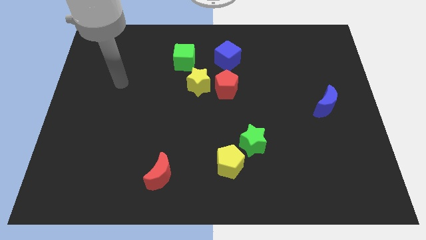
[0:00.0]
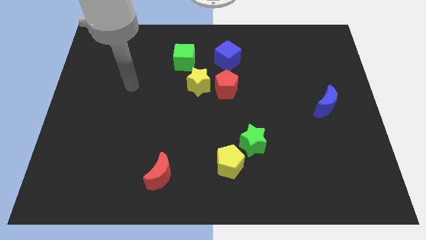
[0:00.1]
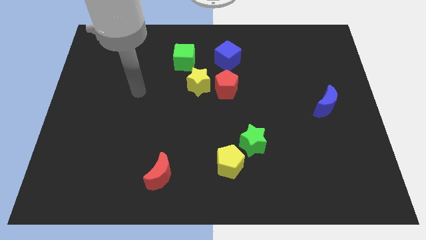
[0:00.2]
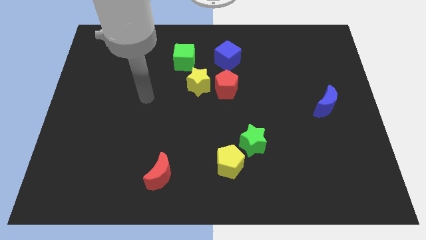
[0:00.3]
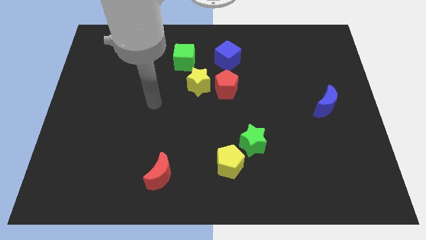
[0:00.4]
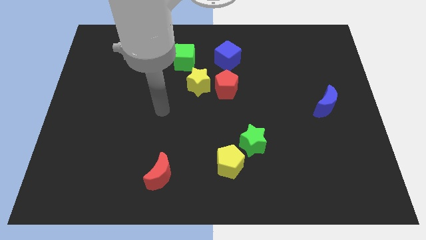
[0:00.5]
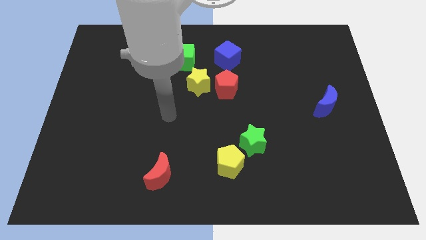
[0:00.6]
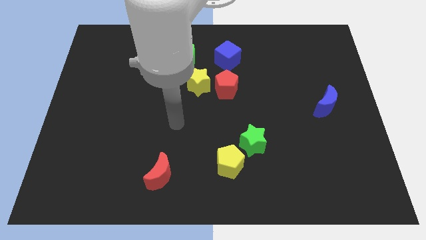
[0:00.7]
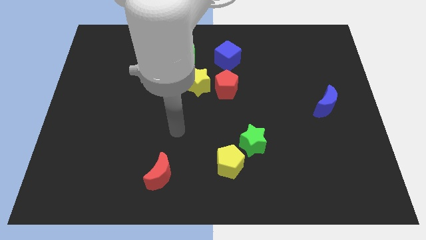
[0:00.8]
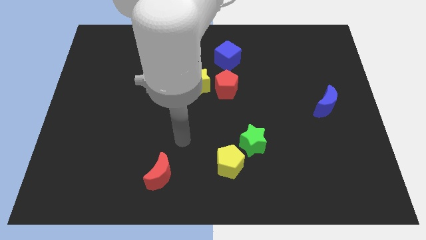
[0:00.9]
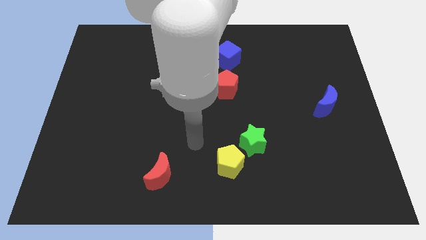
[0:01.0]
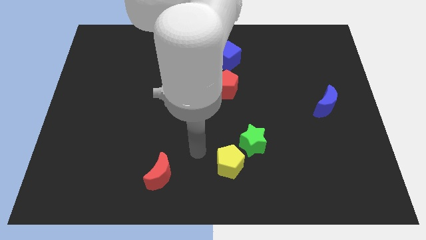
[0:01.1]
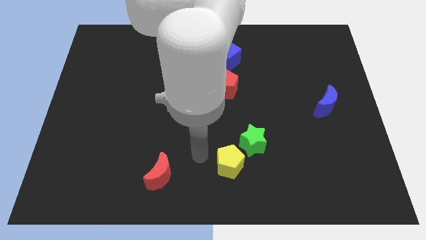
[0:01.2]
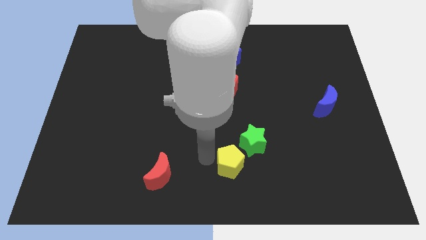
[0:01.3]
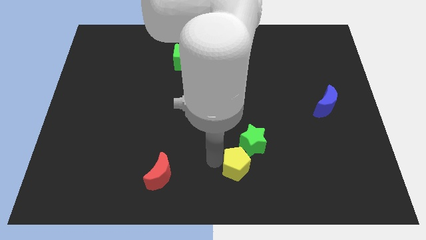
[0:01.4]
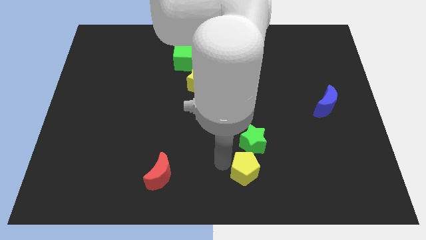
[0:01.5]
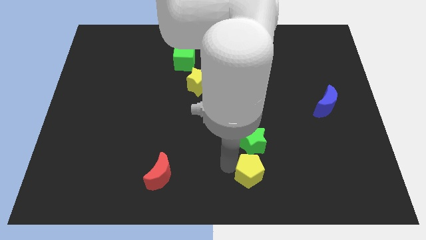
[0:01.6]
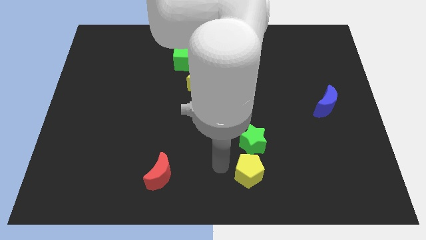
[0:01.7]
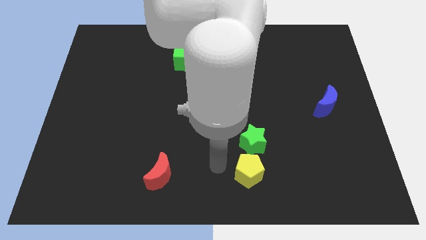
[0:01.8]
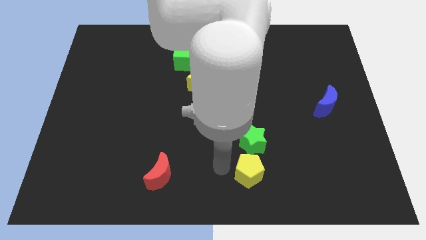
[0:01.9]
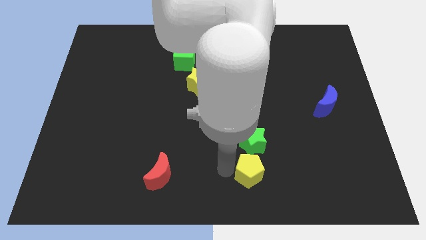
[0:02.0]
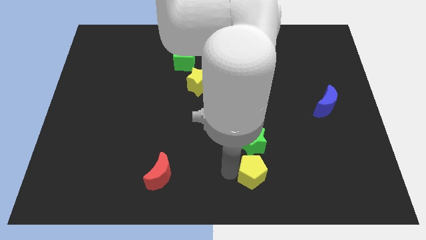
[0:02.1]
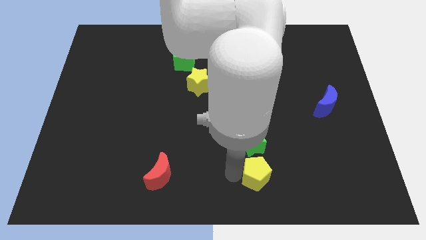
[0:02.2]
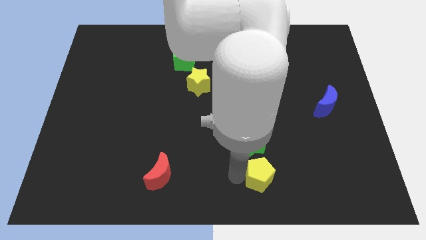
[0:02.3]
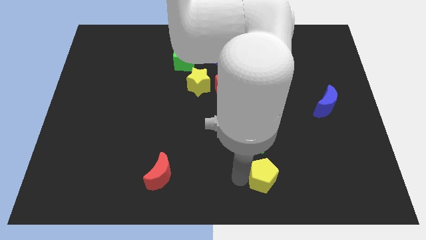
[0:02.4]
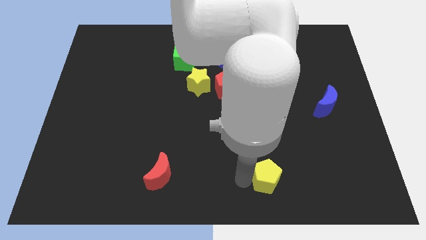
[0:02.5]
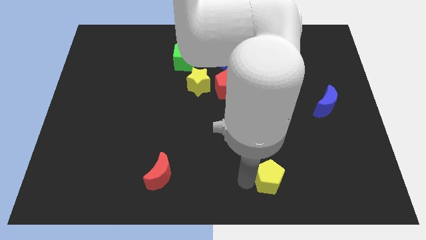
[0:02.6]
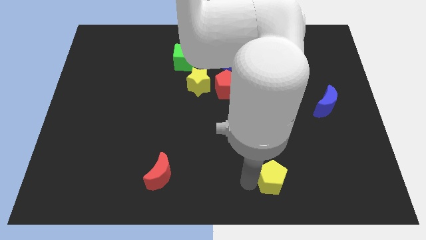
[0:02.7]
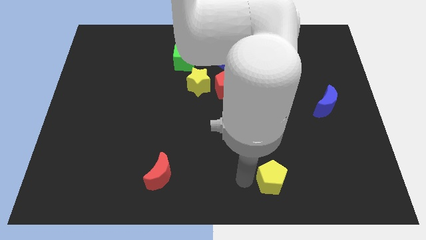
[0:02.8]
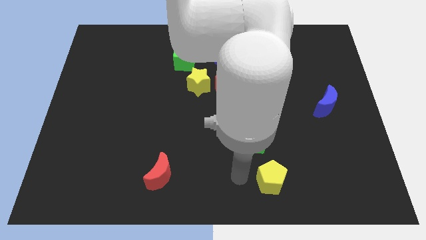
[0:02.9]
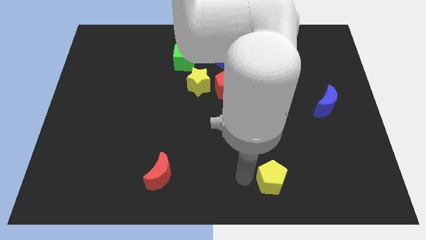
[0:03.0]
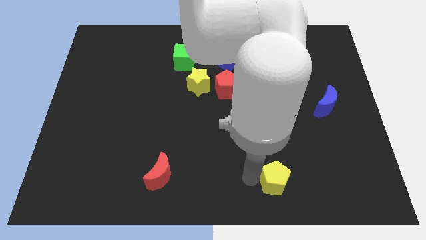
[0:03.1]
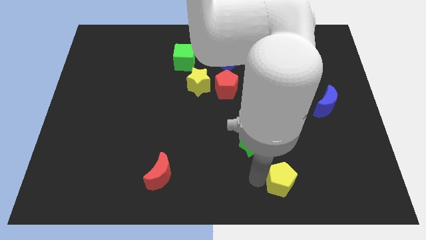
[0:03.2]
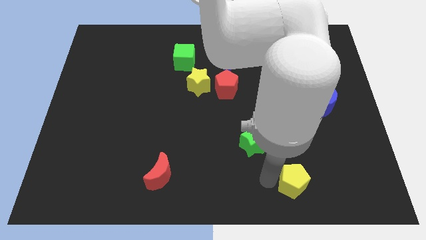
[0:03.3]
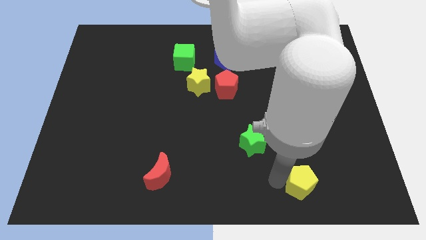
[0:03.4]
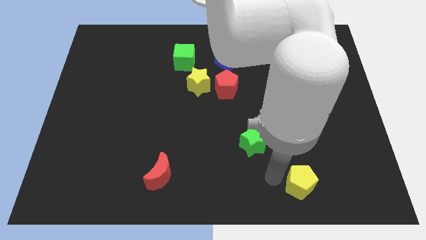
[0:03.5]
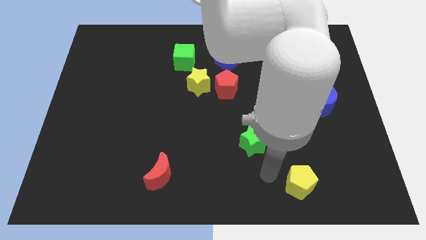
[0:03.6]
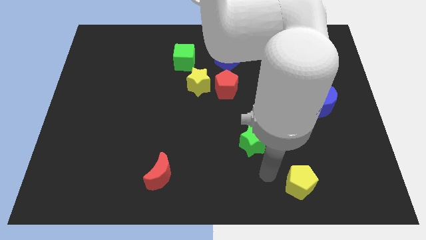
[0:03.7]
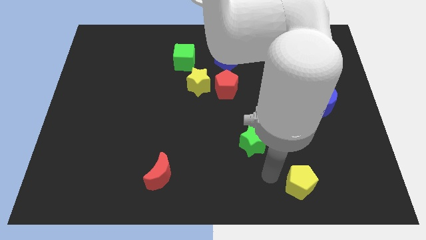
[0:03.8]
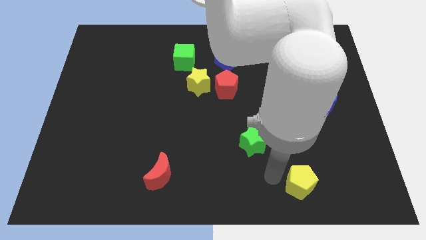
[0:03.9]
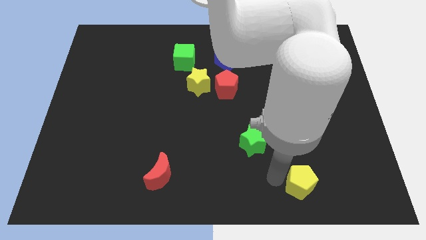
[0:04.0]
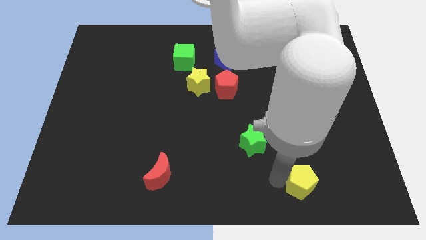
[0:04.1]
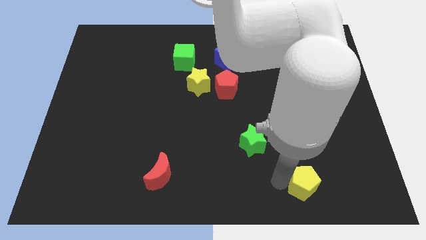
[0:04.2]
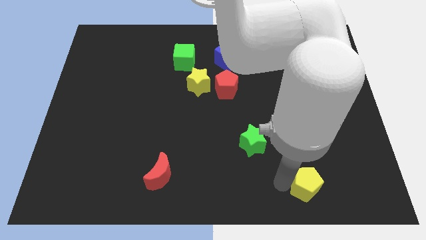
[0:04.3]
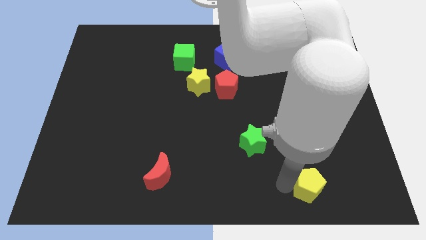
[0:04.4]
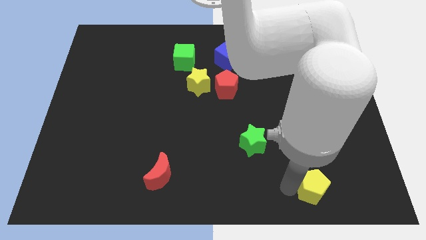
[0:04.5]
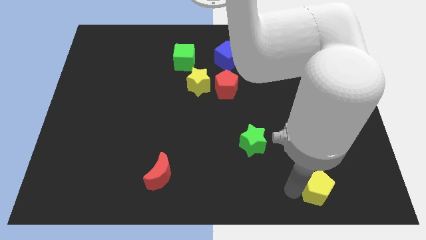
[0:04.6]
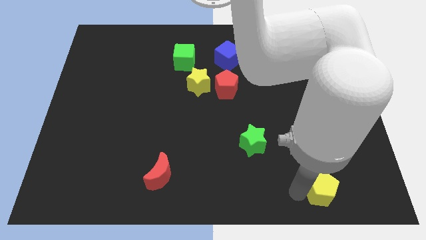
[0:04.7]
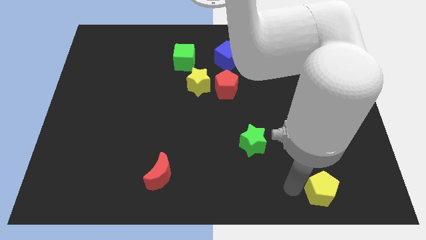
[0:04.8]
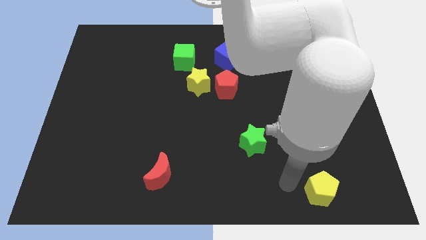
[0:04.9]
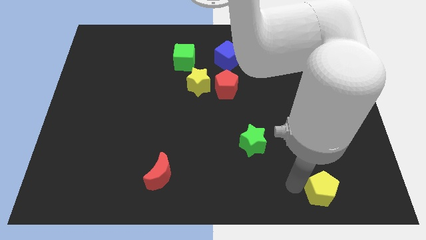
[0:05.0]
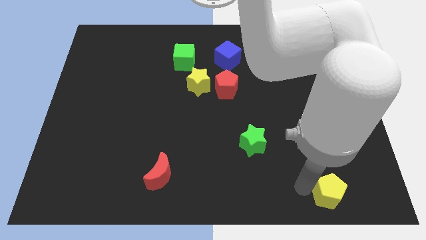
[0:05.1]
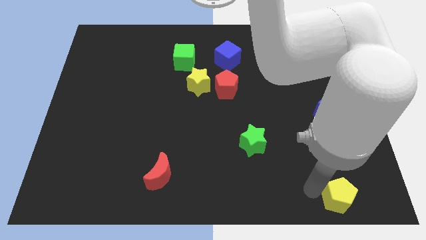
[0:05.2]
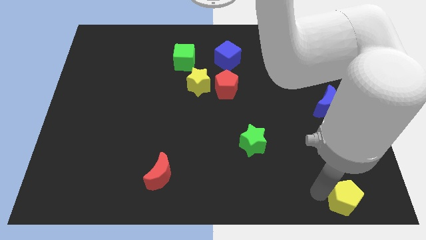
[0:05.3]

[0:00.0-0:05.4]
slide the yellow pentagon to the bottom right of the board

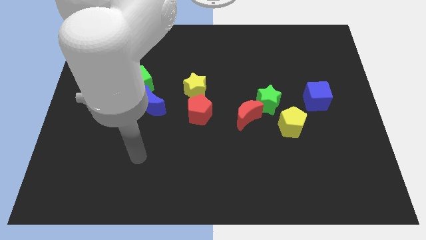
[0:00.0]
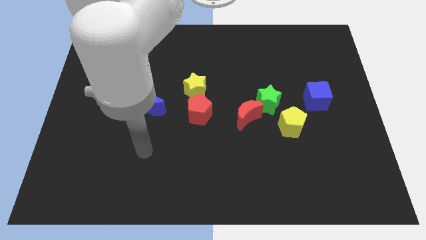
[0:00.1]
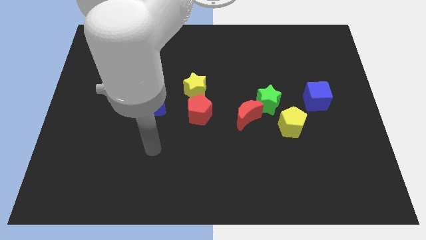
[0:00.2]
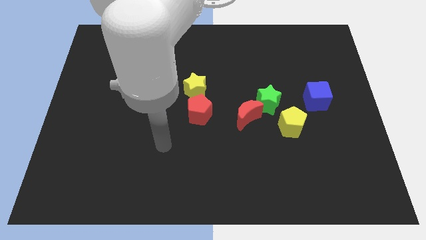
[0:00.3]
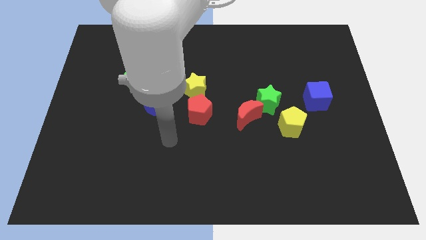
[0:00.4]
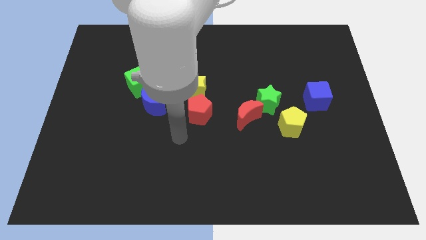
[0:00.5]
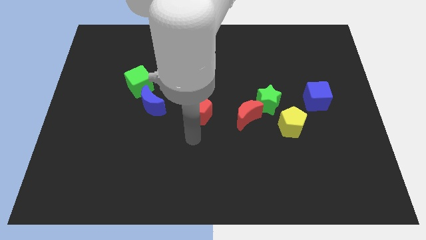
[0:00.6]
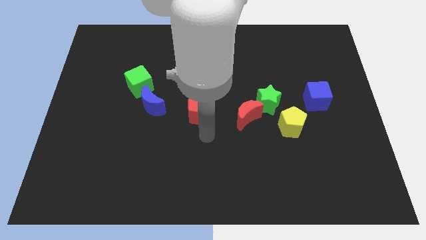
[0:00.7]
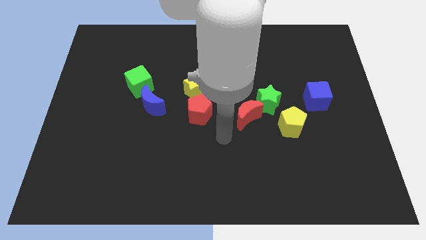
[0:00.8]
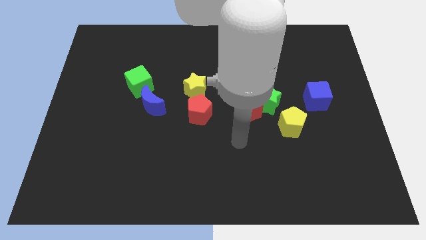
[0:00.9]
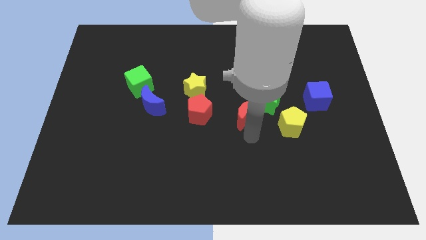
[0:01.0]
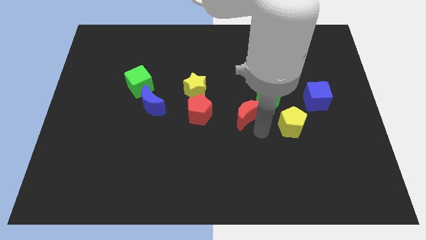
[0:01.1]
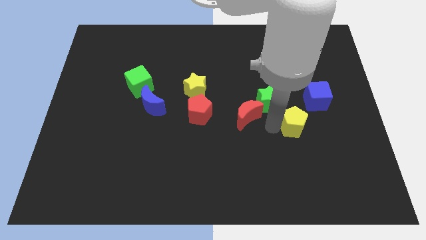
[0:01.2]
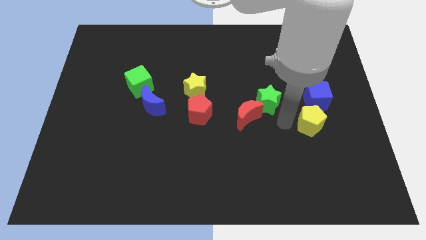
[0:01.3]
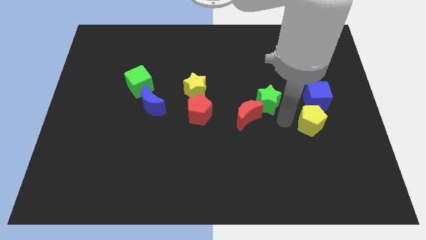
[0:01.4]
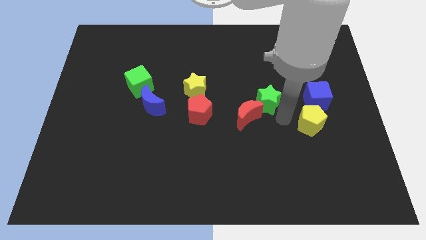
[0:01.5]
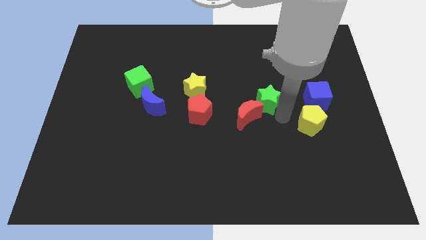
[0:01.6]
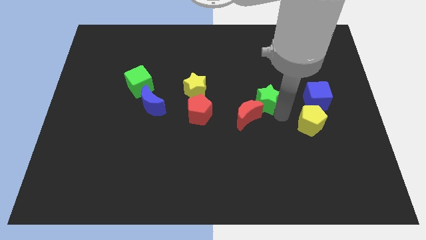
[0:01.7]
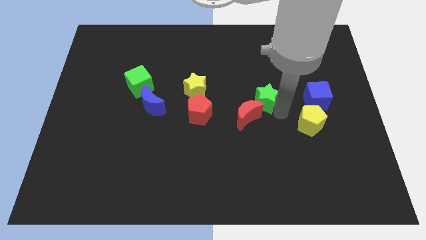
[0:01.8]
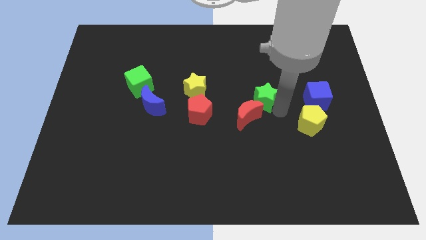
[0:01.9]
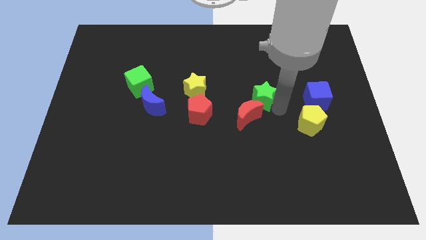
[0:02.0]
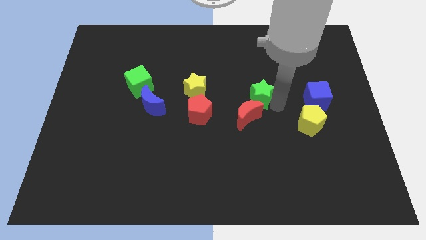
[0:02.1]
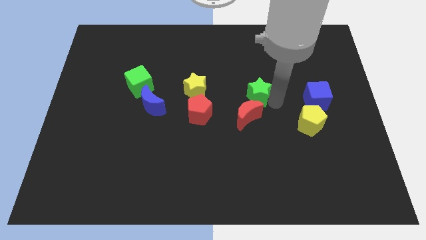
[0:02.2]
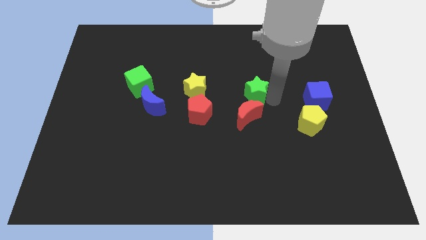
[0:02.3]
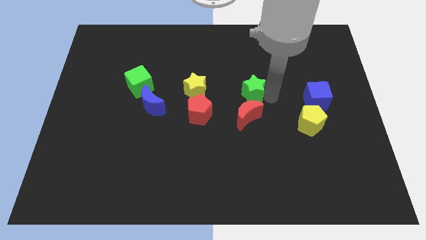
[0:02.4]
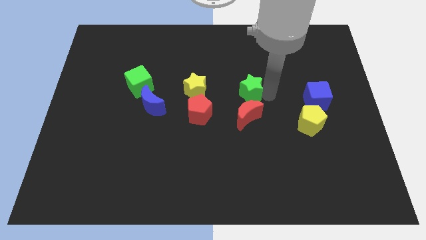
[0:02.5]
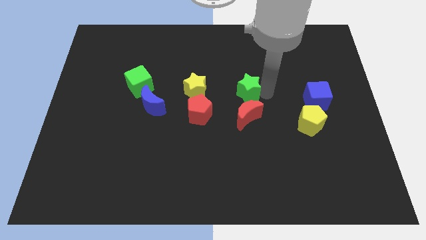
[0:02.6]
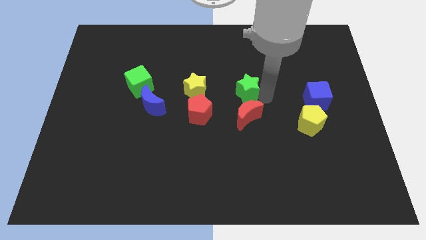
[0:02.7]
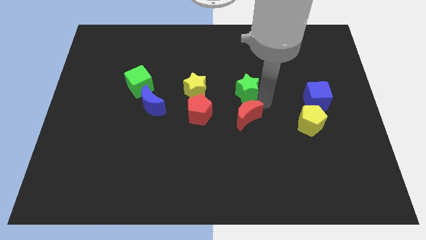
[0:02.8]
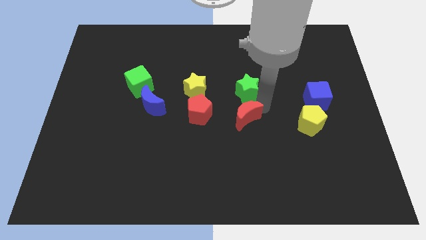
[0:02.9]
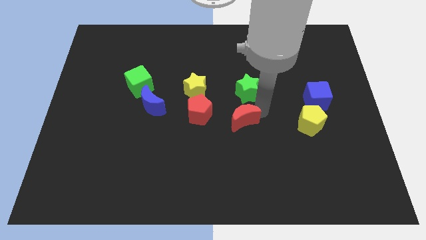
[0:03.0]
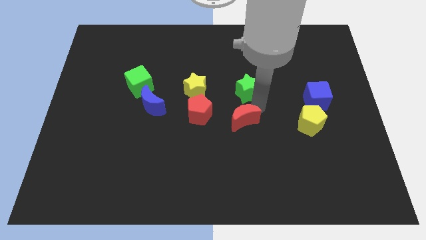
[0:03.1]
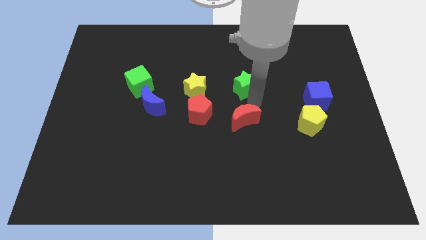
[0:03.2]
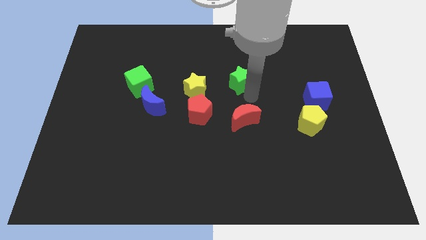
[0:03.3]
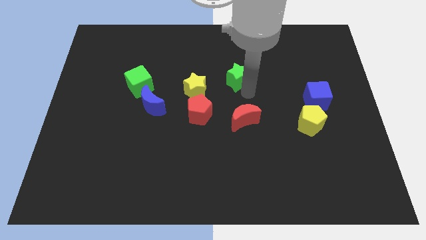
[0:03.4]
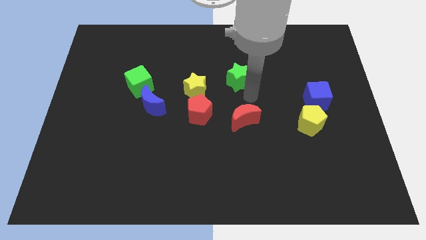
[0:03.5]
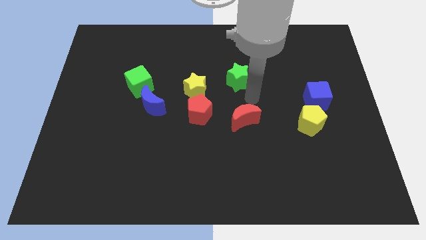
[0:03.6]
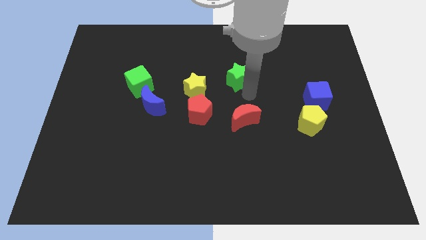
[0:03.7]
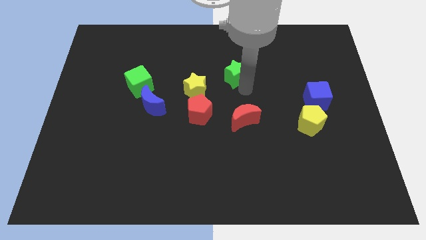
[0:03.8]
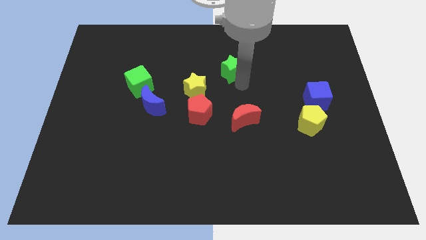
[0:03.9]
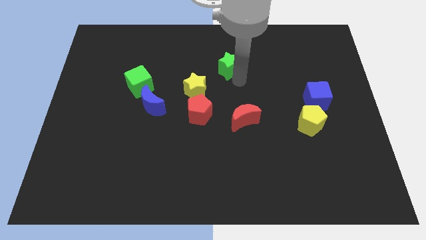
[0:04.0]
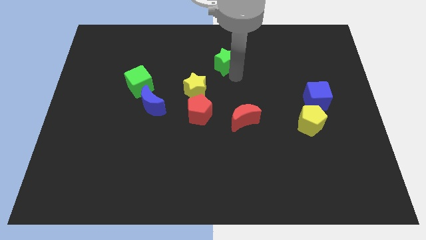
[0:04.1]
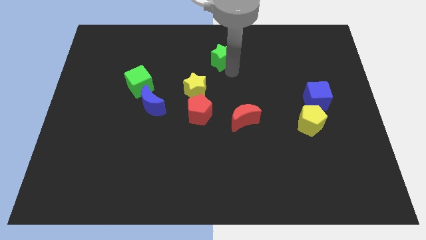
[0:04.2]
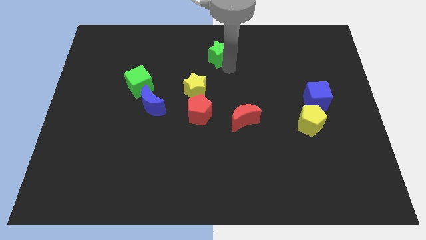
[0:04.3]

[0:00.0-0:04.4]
move the green star to the top
